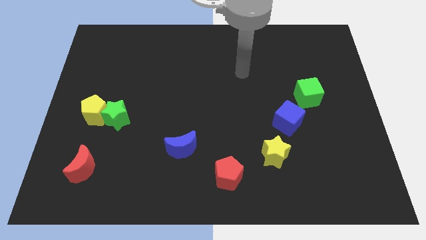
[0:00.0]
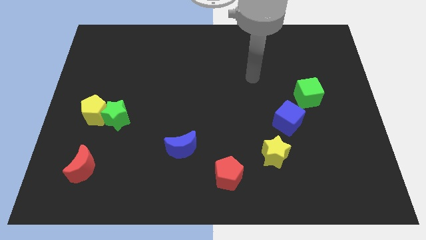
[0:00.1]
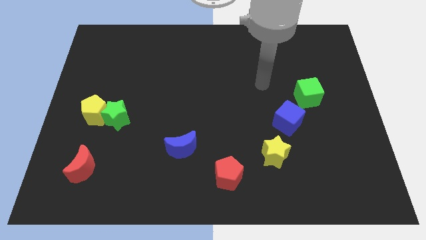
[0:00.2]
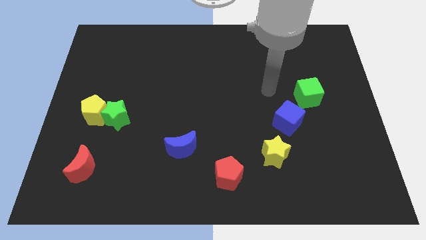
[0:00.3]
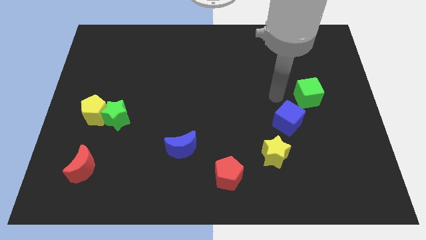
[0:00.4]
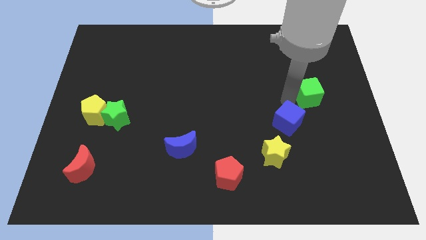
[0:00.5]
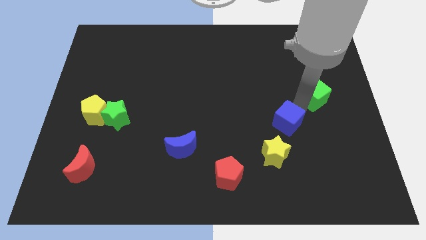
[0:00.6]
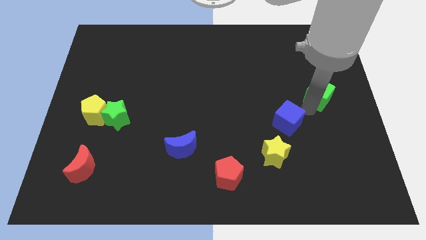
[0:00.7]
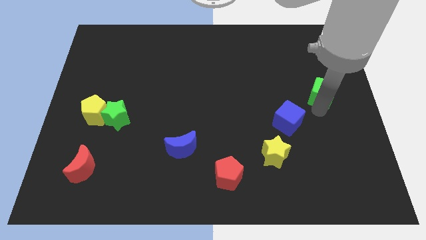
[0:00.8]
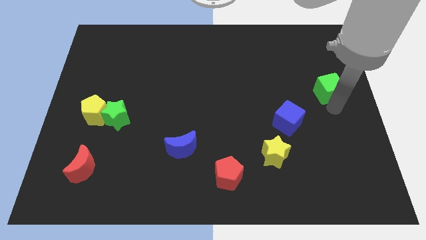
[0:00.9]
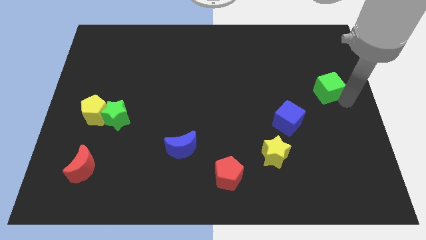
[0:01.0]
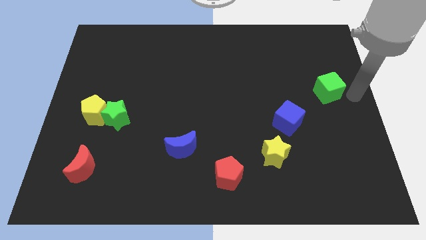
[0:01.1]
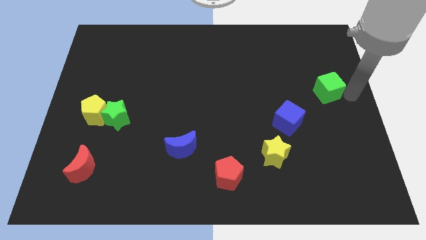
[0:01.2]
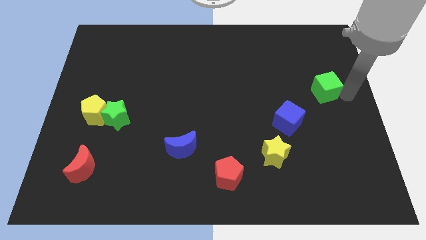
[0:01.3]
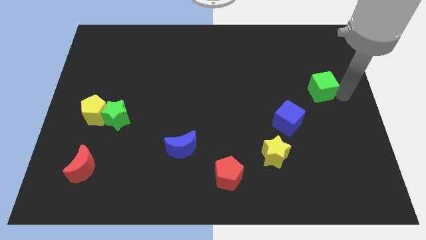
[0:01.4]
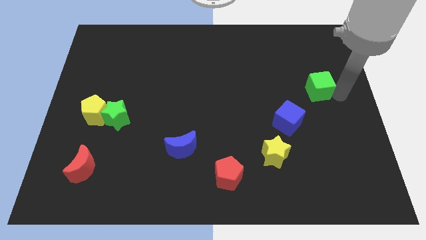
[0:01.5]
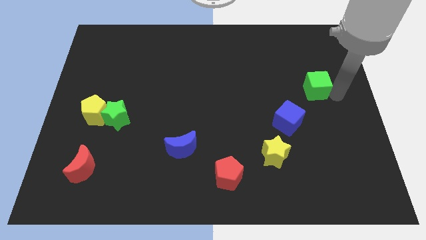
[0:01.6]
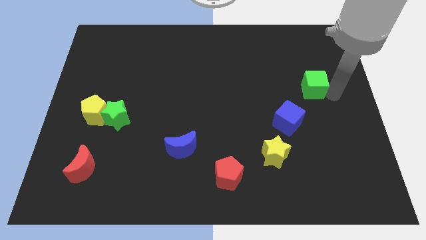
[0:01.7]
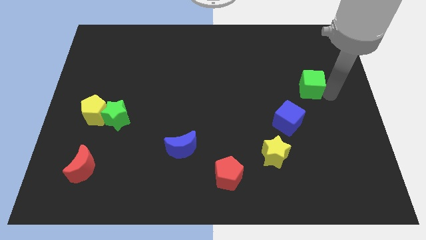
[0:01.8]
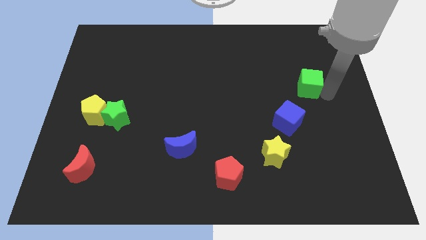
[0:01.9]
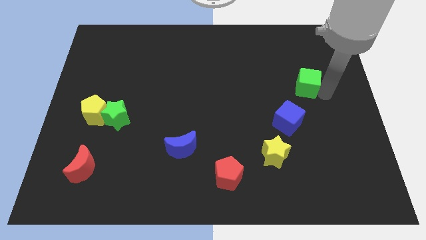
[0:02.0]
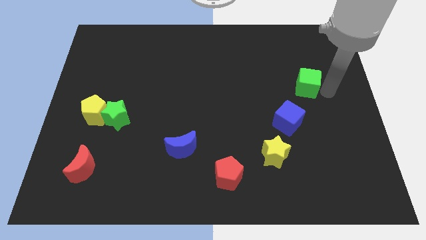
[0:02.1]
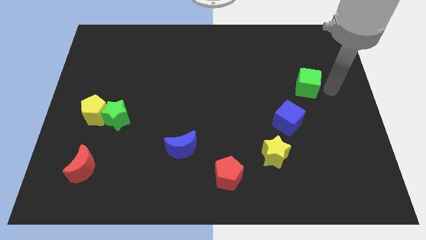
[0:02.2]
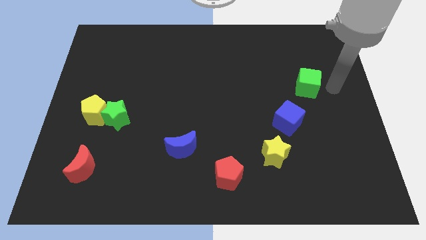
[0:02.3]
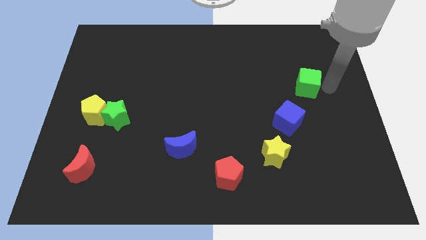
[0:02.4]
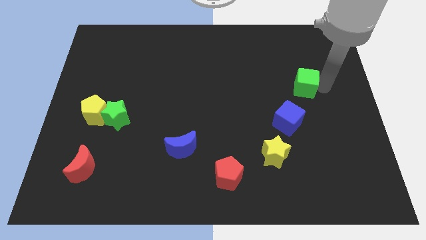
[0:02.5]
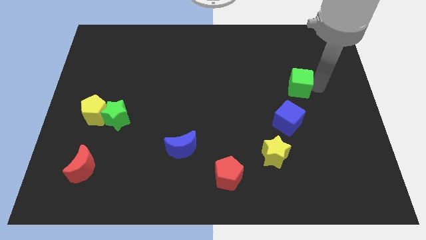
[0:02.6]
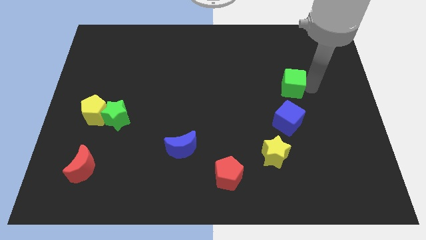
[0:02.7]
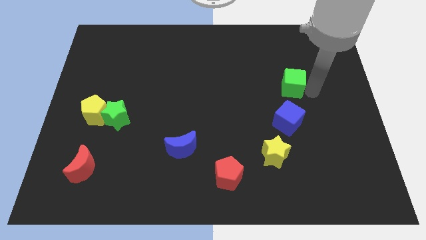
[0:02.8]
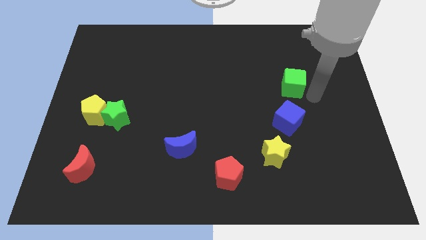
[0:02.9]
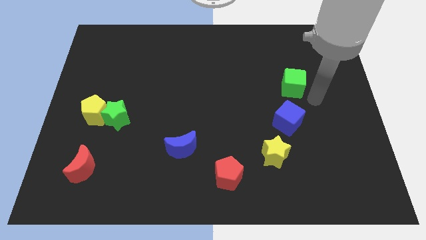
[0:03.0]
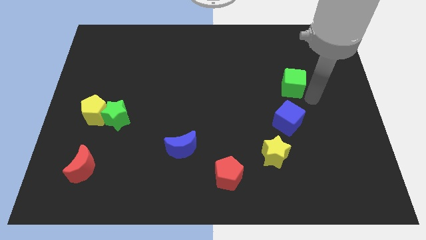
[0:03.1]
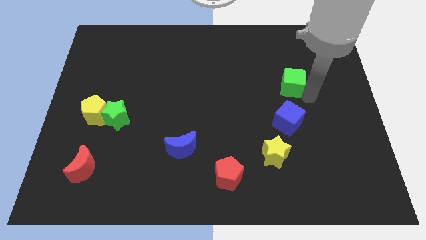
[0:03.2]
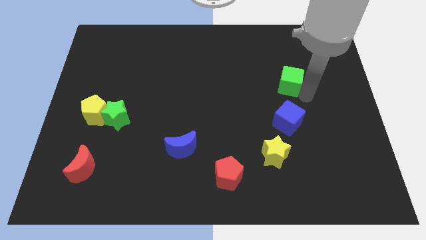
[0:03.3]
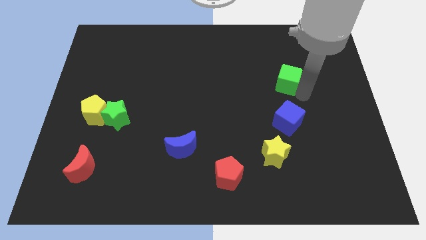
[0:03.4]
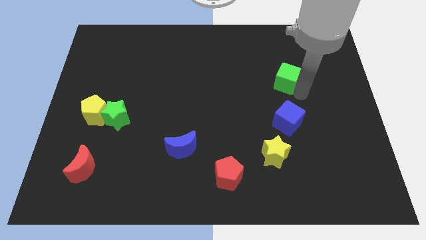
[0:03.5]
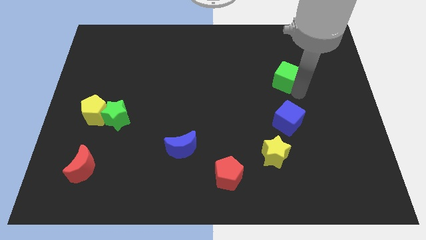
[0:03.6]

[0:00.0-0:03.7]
move the green cube a little bit upwards and to the left diagonally

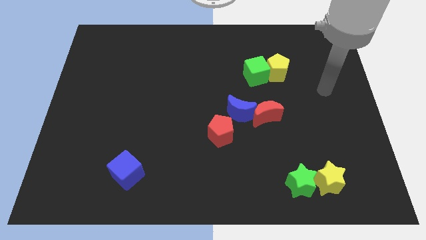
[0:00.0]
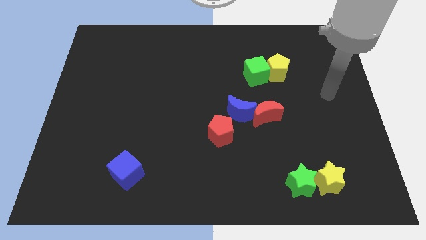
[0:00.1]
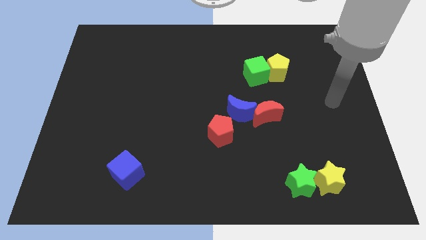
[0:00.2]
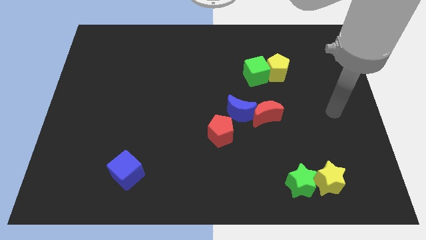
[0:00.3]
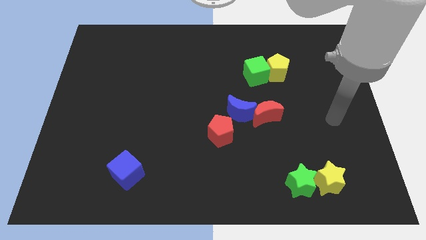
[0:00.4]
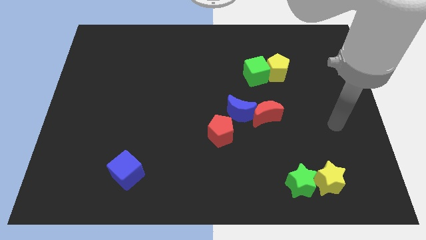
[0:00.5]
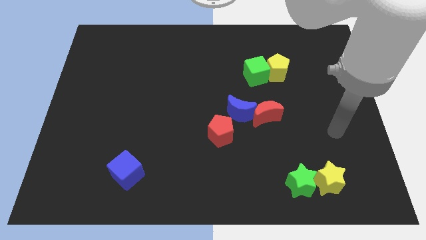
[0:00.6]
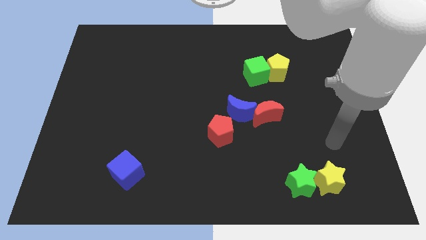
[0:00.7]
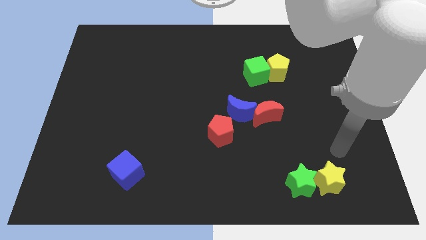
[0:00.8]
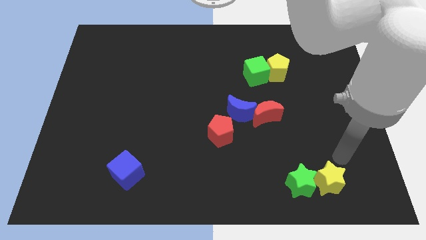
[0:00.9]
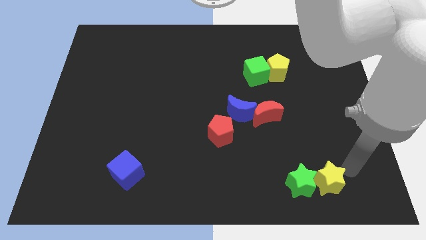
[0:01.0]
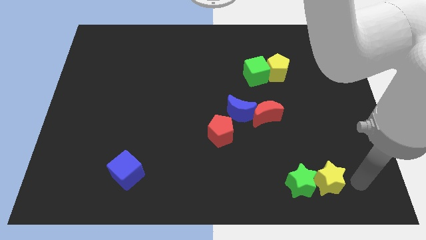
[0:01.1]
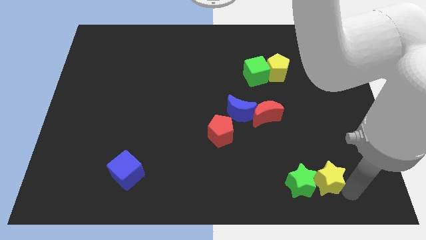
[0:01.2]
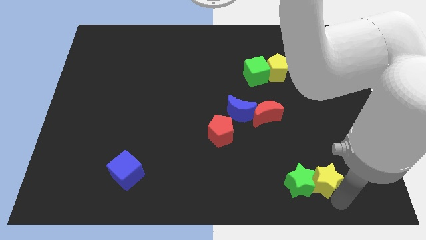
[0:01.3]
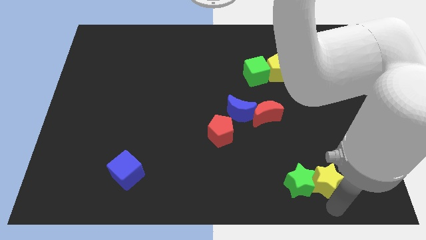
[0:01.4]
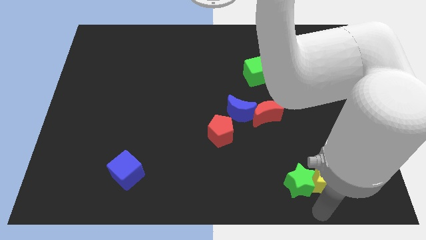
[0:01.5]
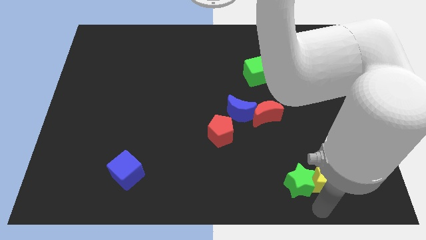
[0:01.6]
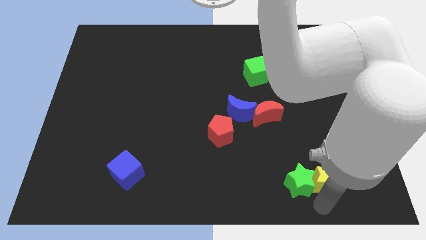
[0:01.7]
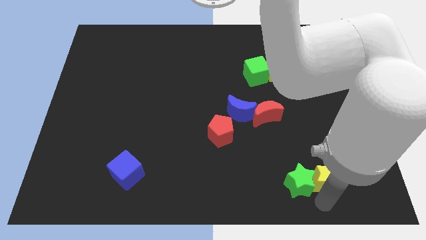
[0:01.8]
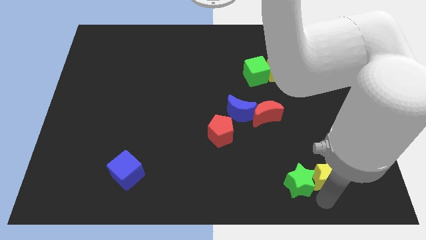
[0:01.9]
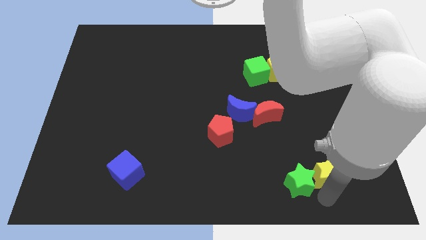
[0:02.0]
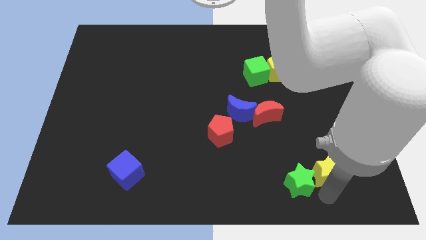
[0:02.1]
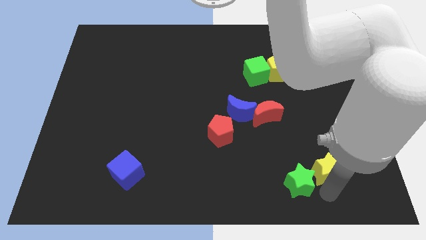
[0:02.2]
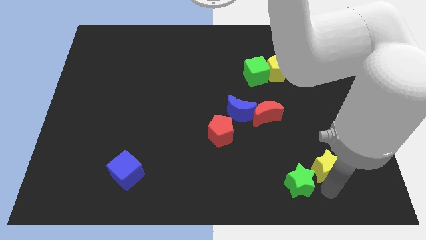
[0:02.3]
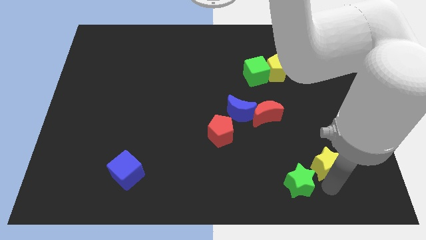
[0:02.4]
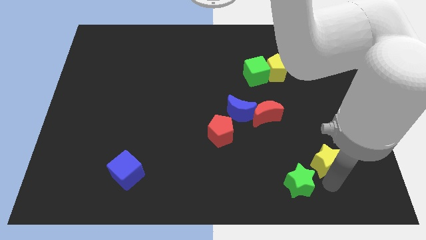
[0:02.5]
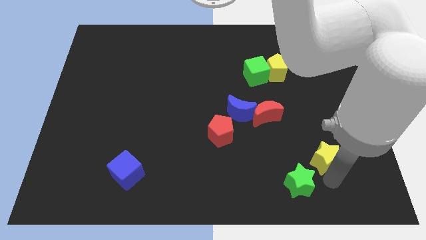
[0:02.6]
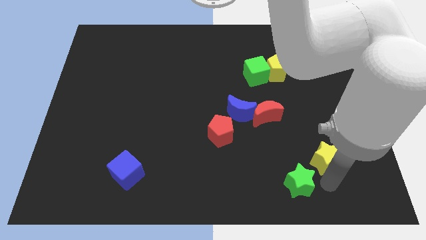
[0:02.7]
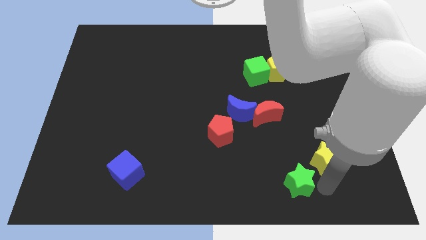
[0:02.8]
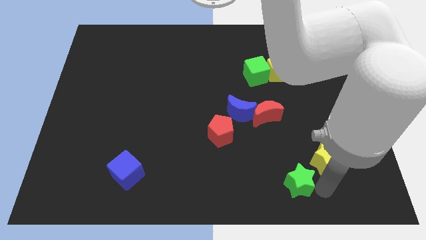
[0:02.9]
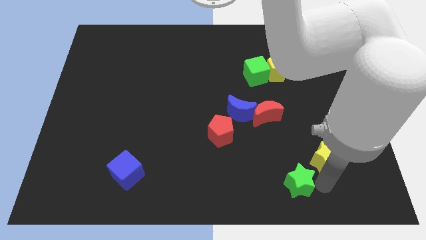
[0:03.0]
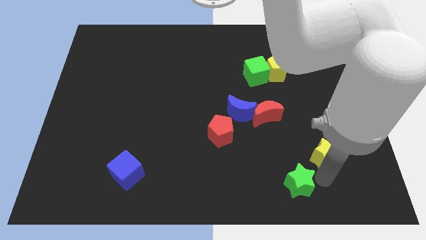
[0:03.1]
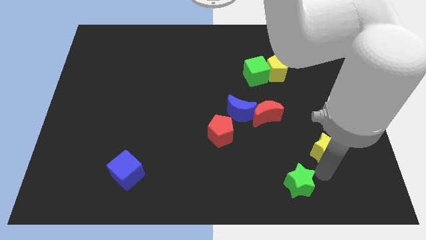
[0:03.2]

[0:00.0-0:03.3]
push the yellow star somewhat upwards

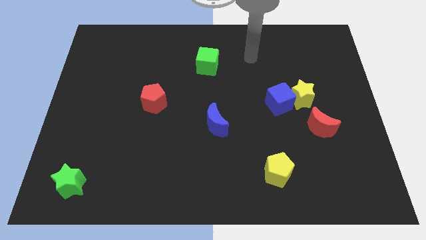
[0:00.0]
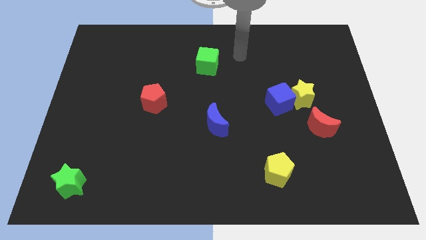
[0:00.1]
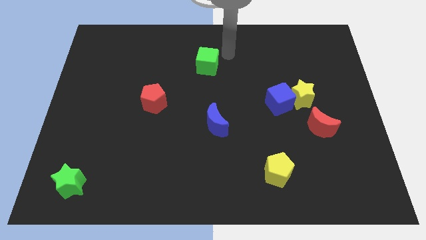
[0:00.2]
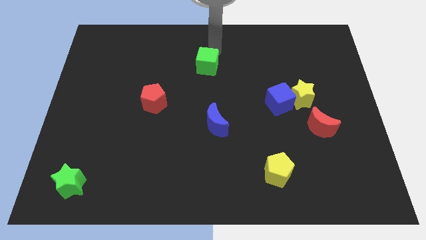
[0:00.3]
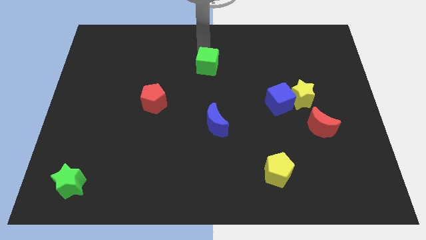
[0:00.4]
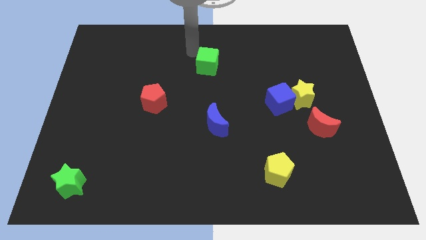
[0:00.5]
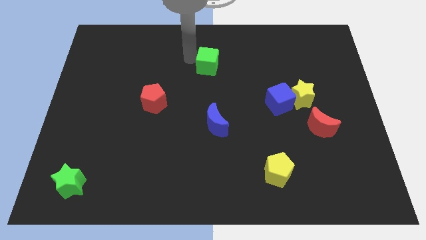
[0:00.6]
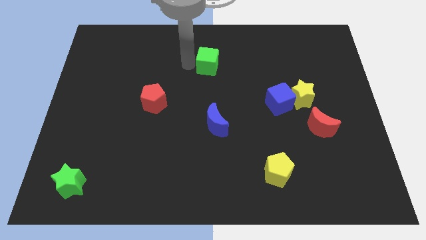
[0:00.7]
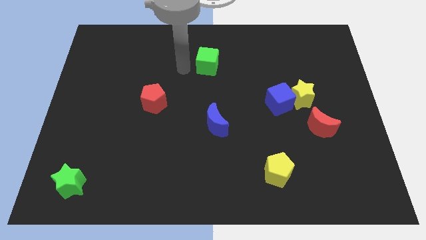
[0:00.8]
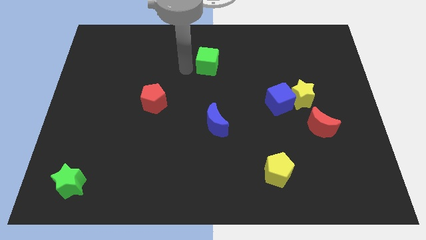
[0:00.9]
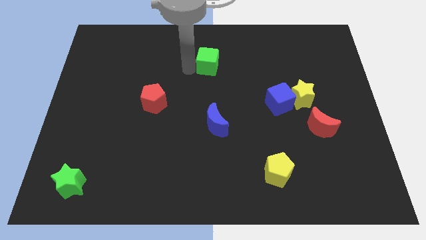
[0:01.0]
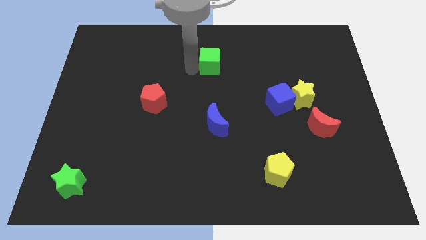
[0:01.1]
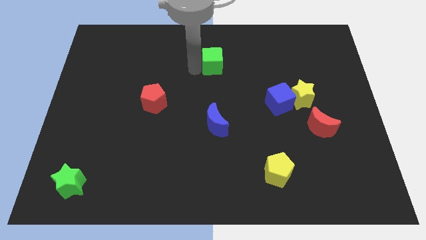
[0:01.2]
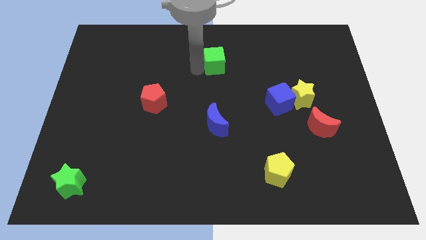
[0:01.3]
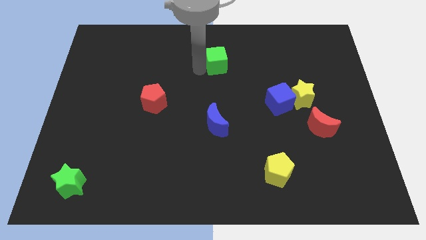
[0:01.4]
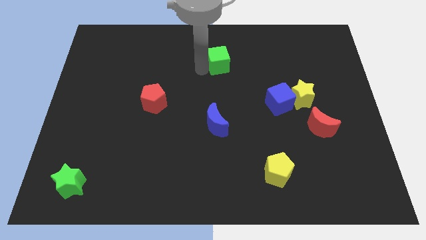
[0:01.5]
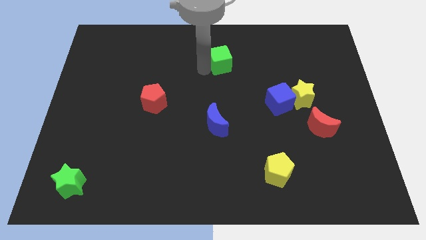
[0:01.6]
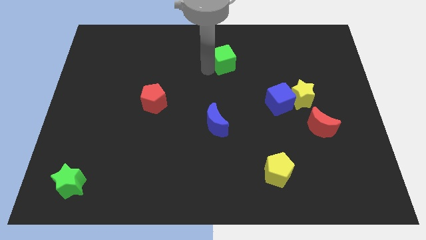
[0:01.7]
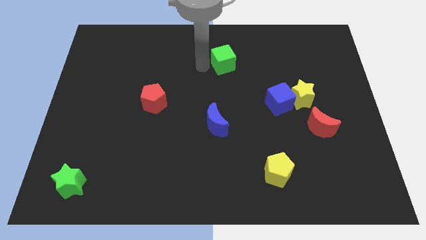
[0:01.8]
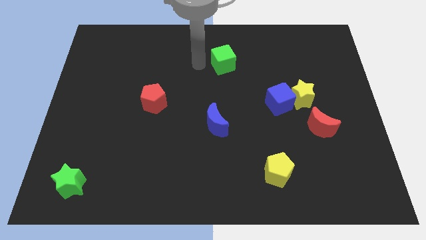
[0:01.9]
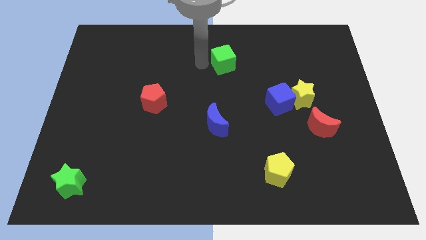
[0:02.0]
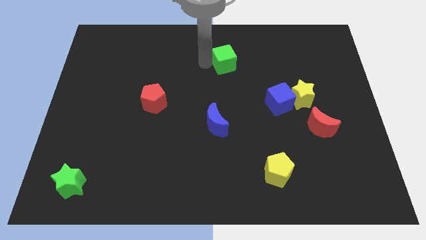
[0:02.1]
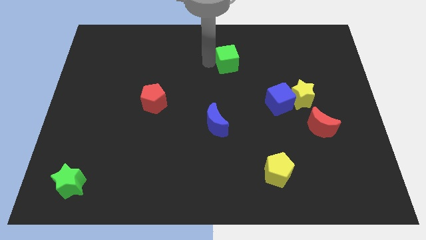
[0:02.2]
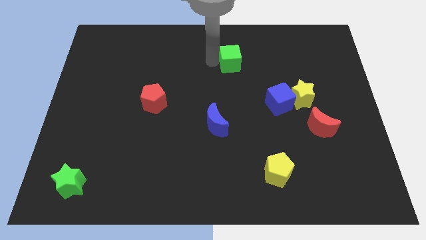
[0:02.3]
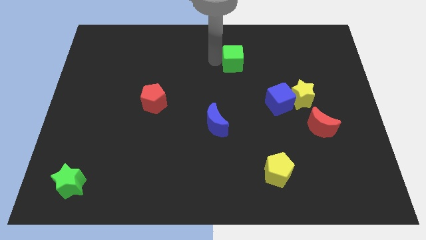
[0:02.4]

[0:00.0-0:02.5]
slightly move the green cube to the right
